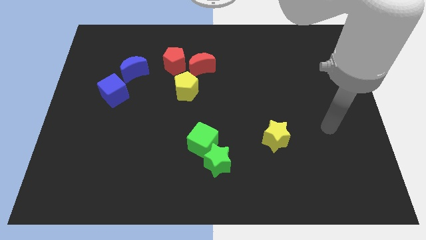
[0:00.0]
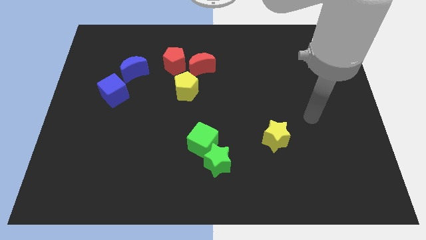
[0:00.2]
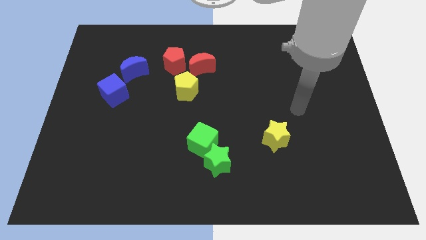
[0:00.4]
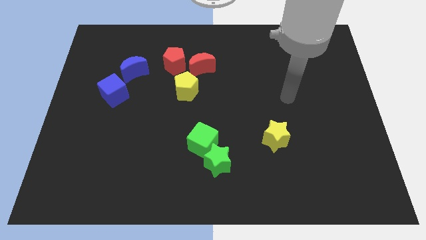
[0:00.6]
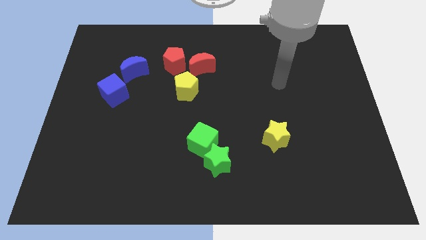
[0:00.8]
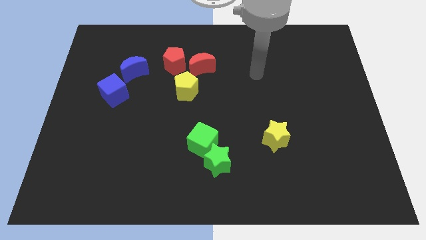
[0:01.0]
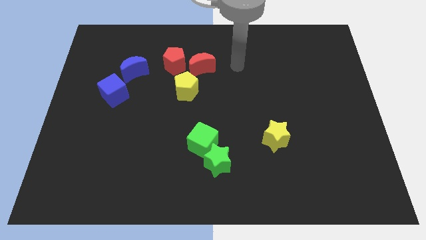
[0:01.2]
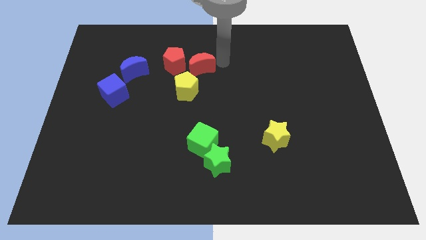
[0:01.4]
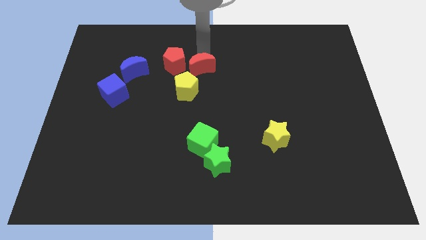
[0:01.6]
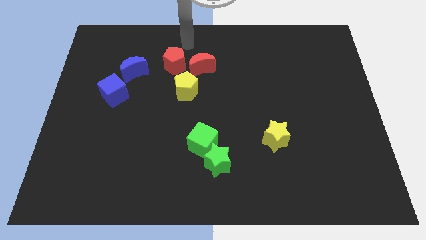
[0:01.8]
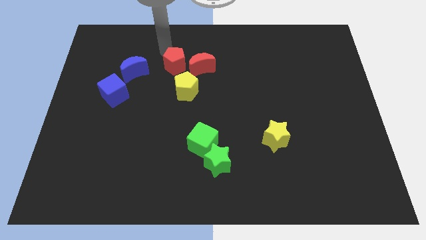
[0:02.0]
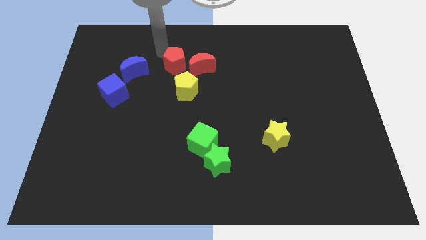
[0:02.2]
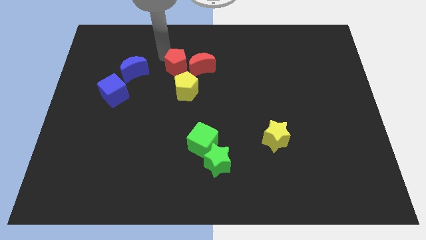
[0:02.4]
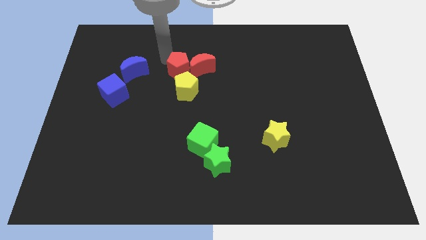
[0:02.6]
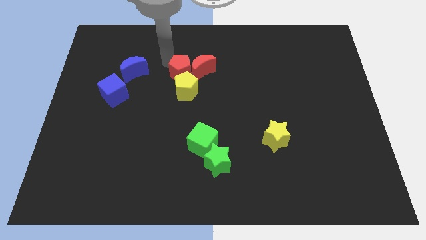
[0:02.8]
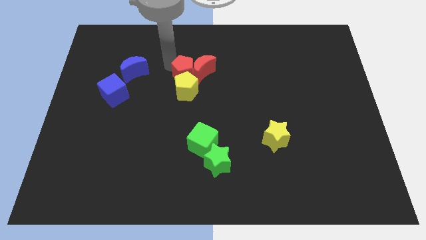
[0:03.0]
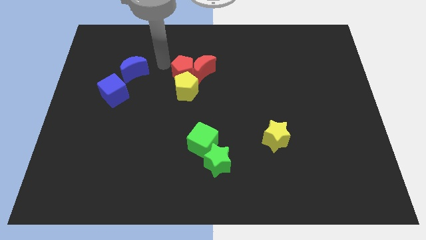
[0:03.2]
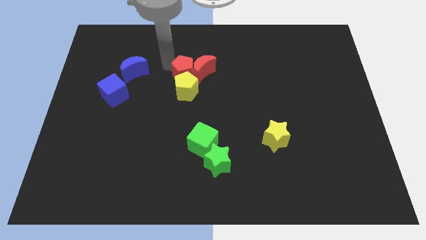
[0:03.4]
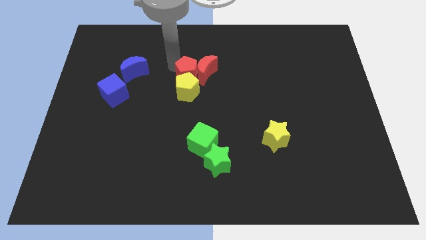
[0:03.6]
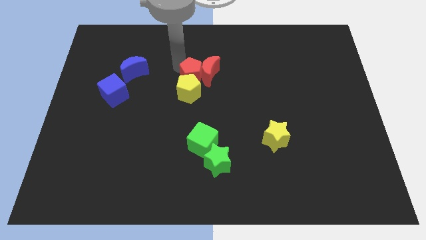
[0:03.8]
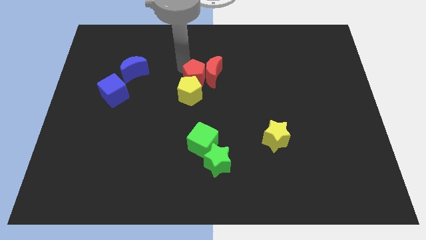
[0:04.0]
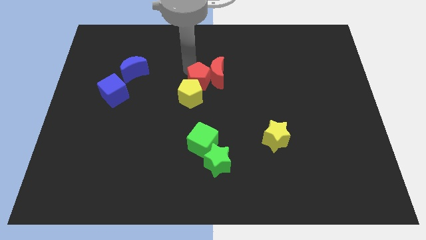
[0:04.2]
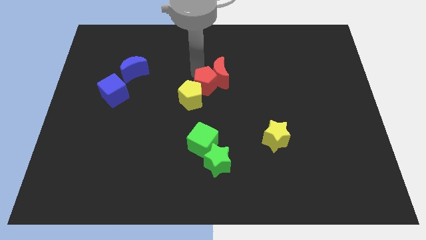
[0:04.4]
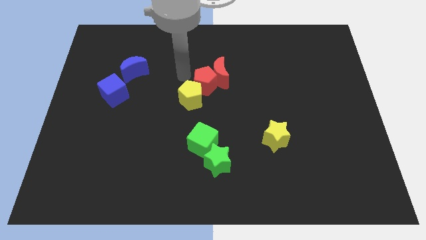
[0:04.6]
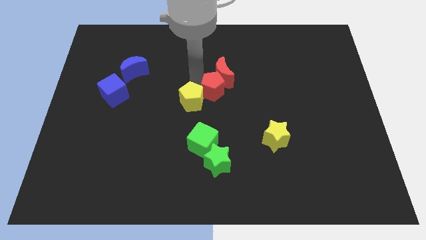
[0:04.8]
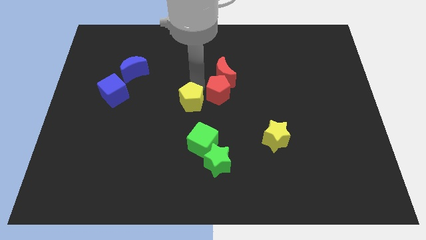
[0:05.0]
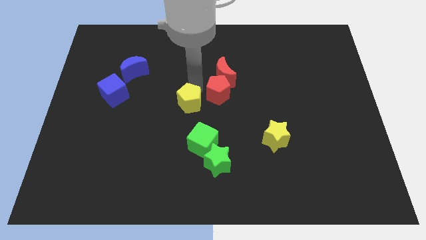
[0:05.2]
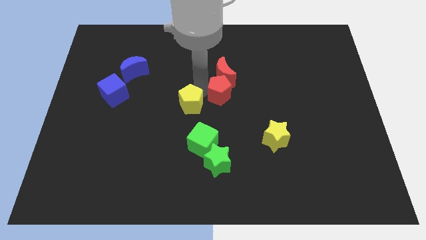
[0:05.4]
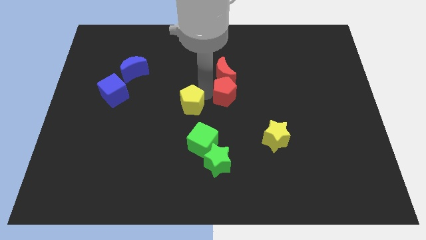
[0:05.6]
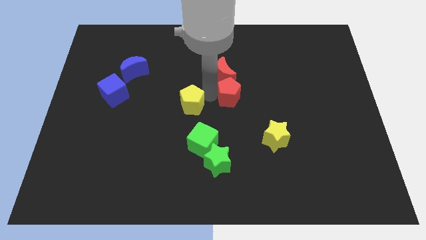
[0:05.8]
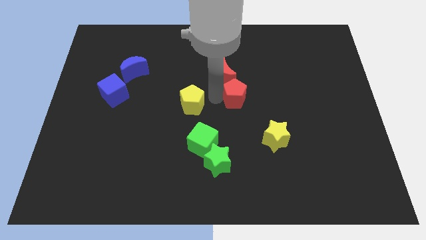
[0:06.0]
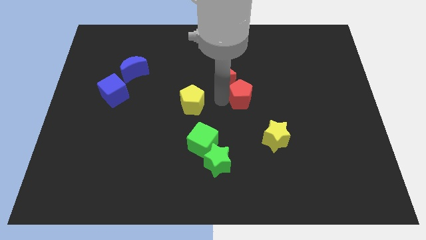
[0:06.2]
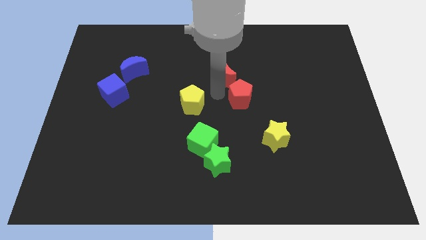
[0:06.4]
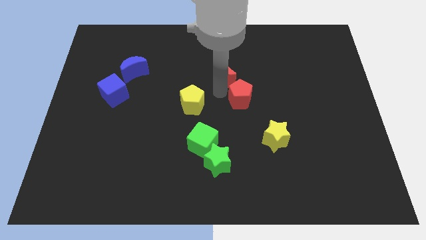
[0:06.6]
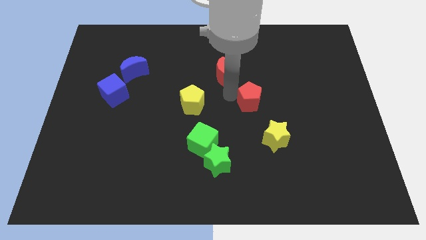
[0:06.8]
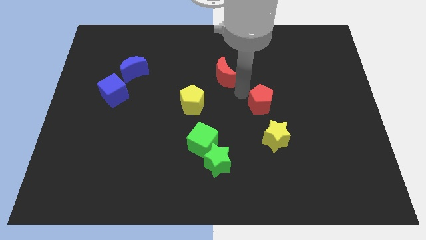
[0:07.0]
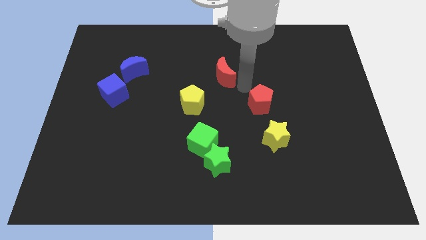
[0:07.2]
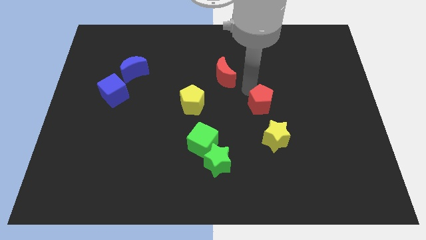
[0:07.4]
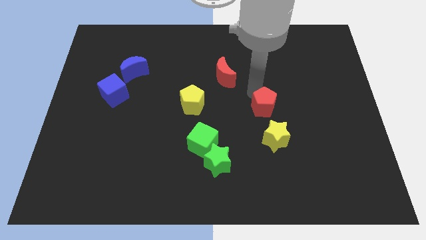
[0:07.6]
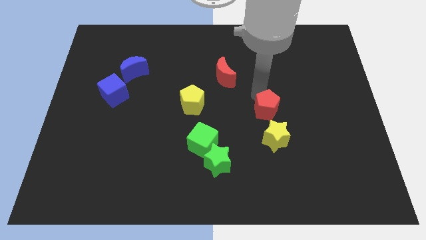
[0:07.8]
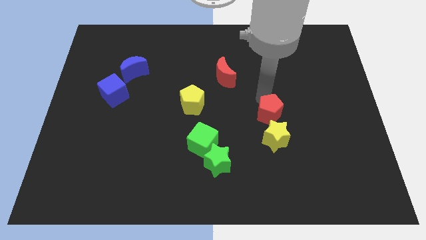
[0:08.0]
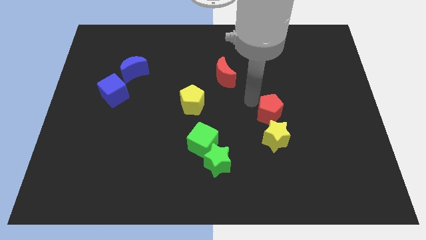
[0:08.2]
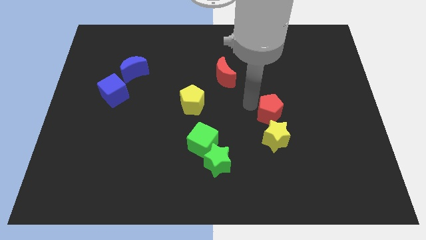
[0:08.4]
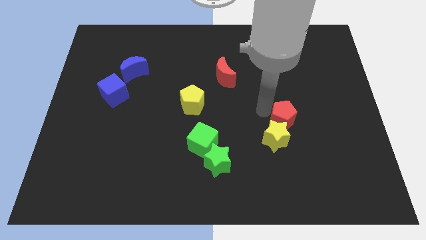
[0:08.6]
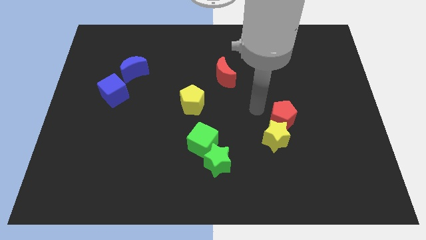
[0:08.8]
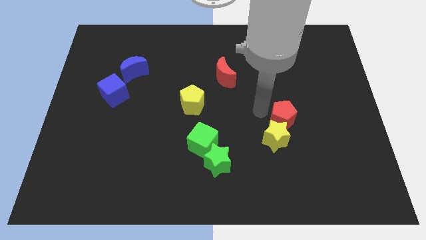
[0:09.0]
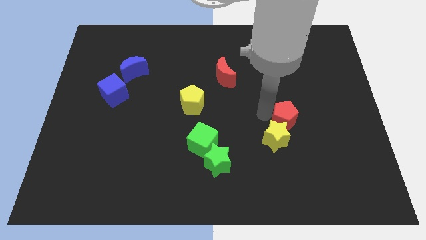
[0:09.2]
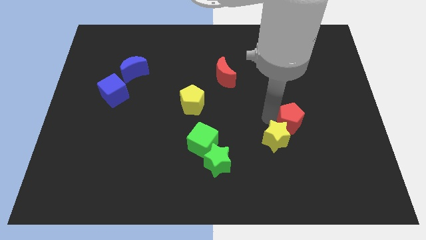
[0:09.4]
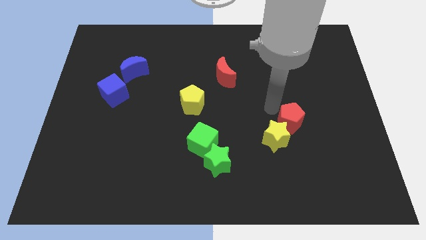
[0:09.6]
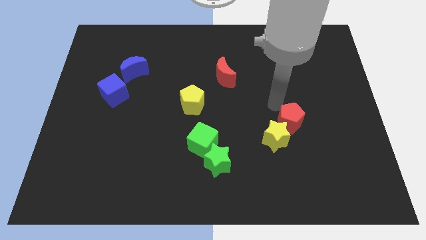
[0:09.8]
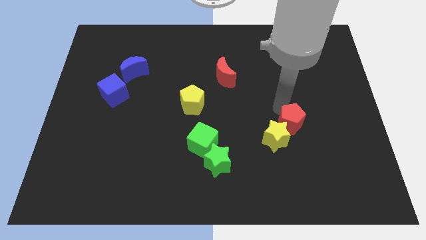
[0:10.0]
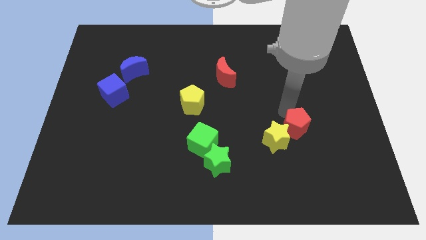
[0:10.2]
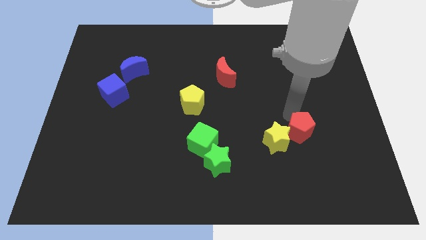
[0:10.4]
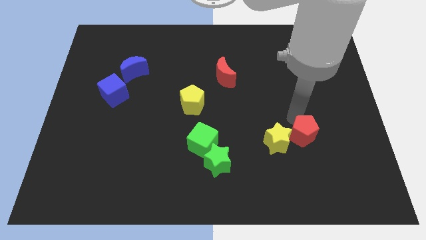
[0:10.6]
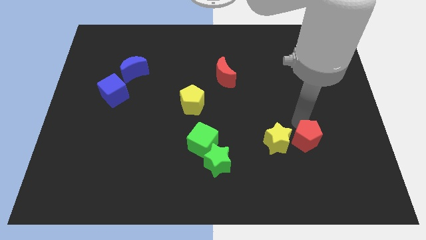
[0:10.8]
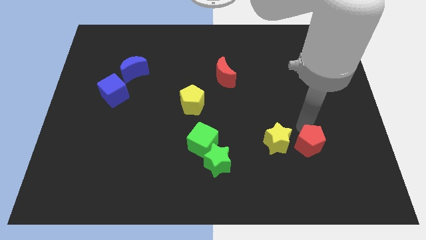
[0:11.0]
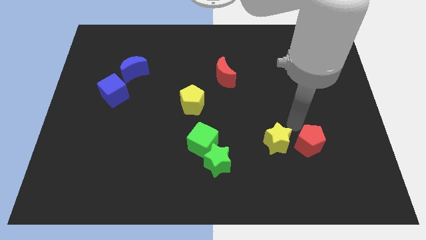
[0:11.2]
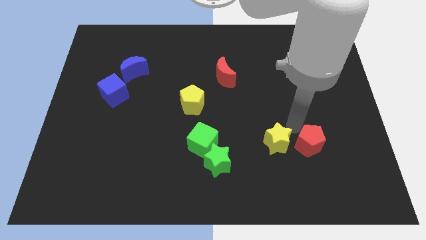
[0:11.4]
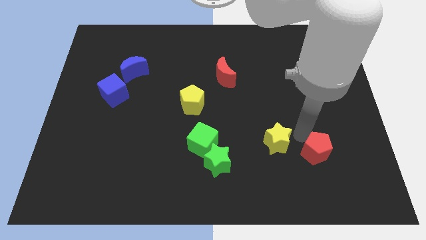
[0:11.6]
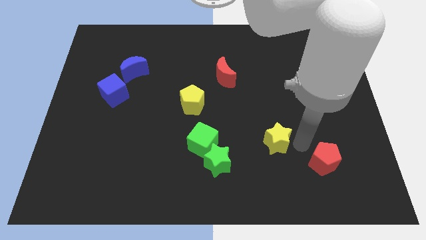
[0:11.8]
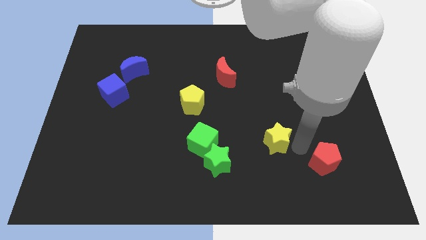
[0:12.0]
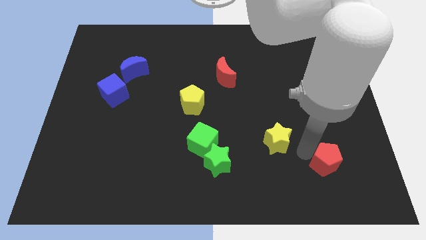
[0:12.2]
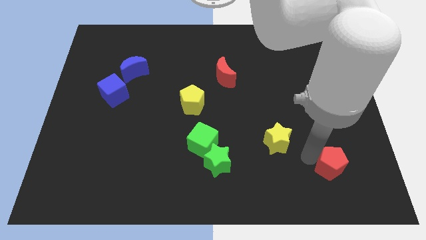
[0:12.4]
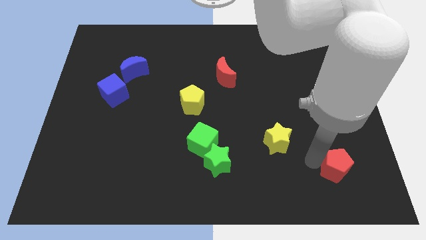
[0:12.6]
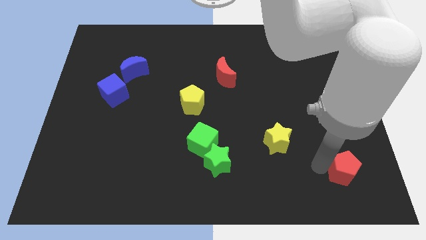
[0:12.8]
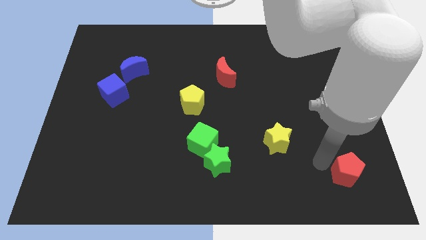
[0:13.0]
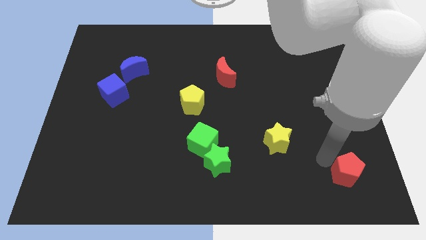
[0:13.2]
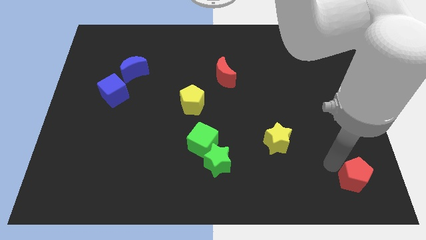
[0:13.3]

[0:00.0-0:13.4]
slide the red pentagon to the bottom right of the board
